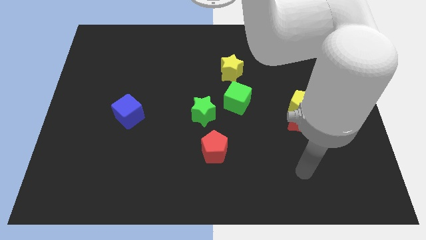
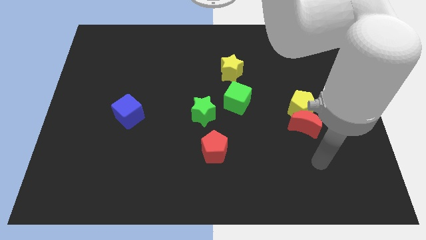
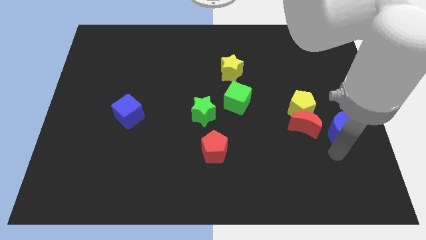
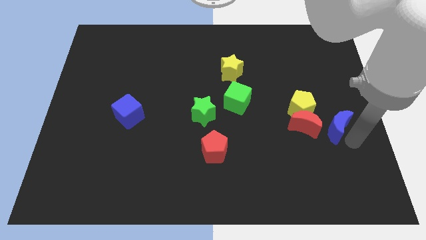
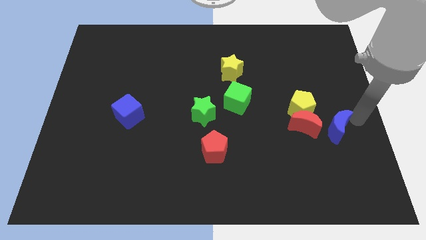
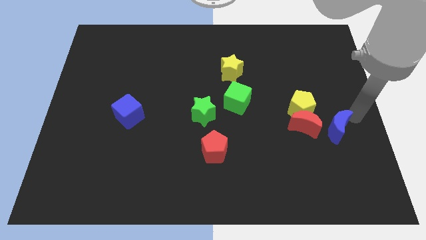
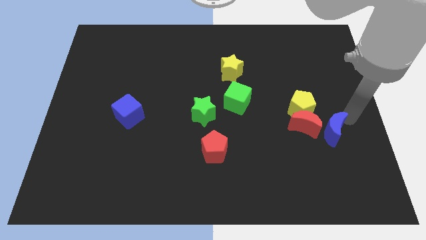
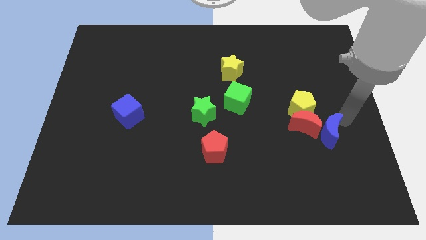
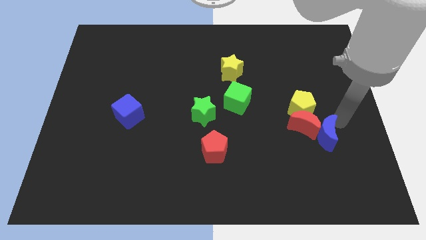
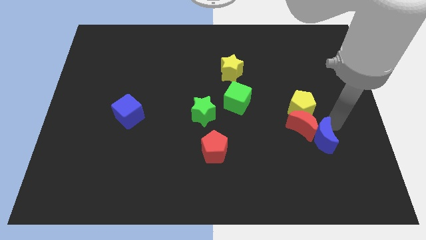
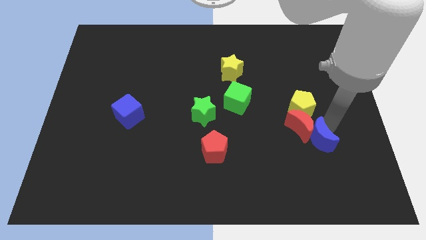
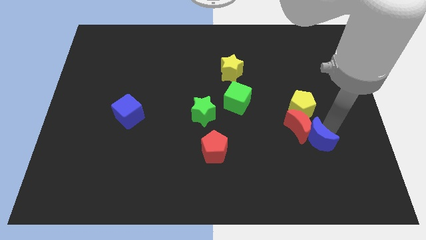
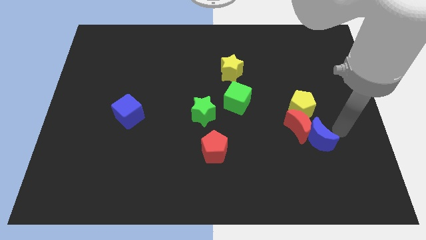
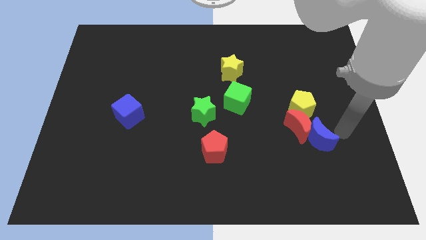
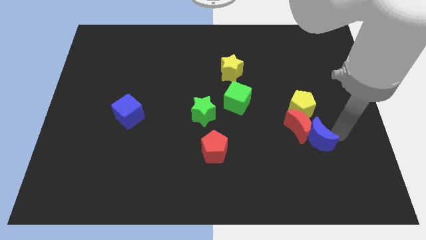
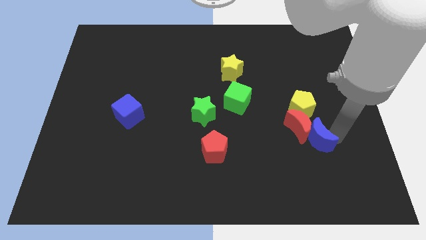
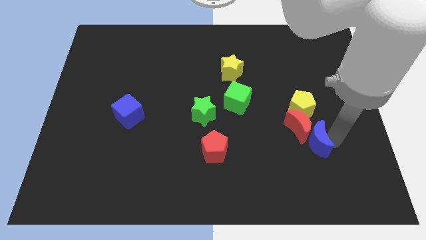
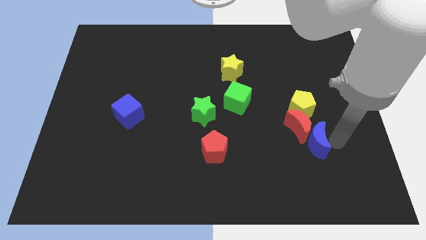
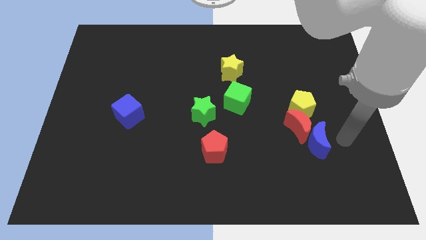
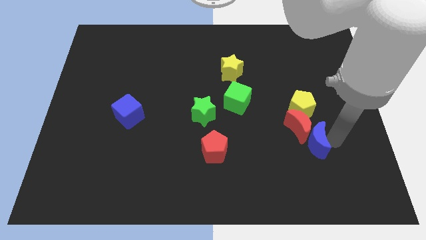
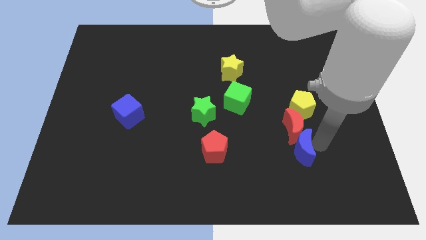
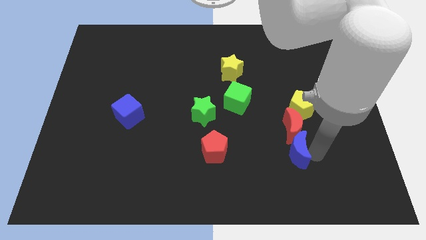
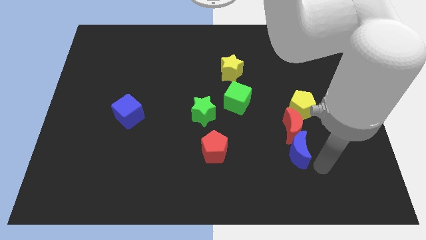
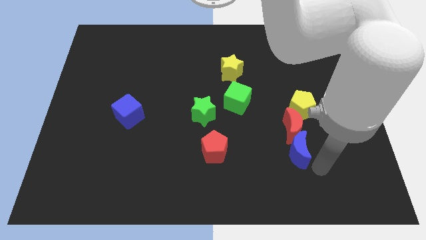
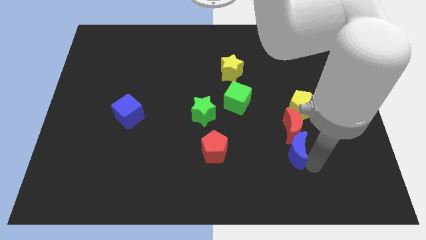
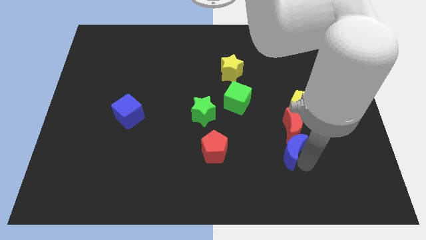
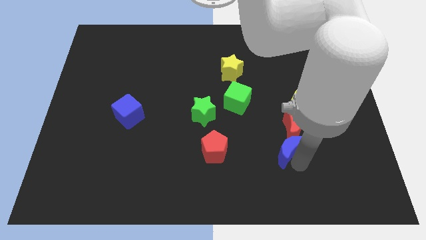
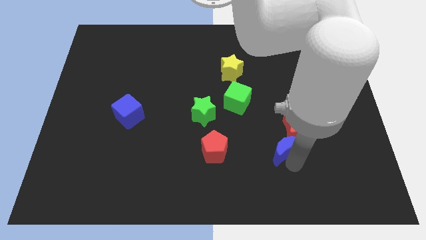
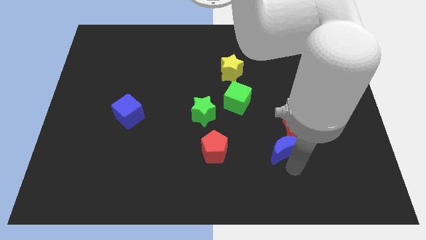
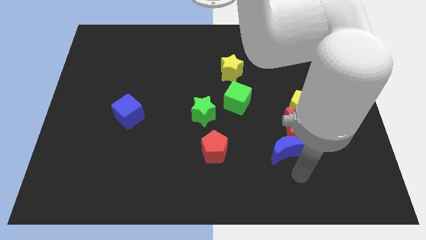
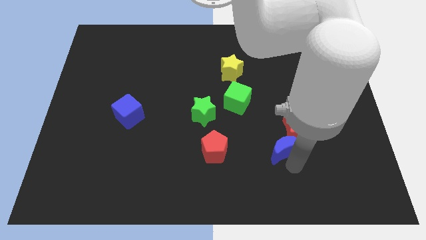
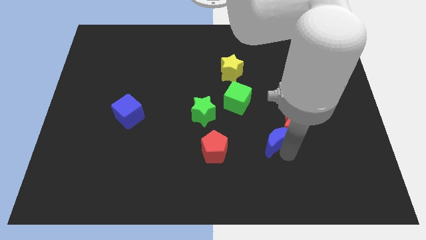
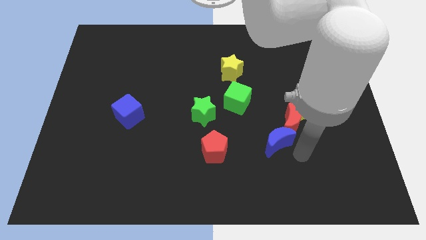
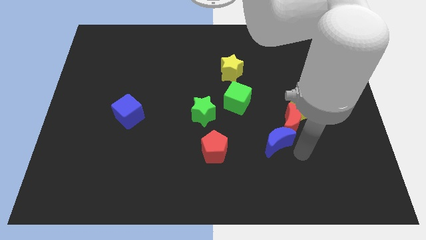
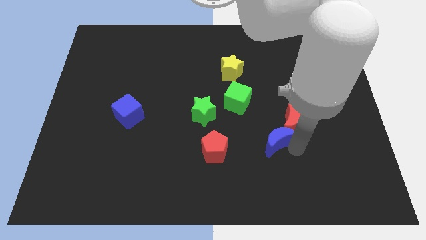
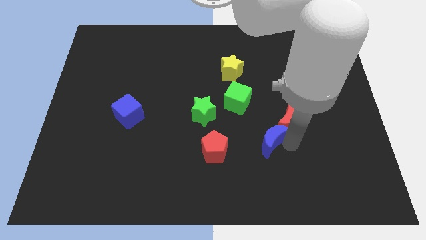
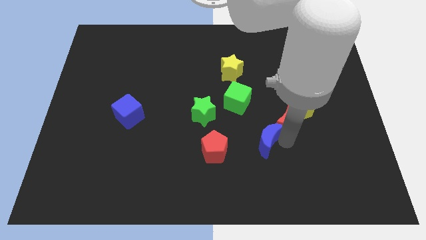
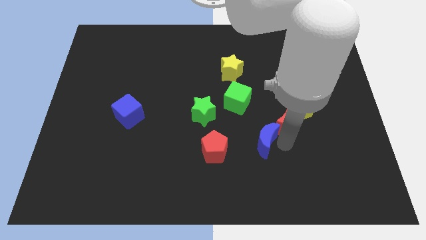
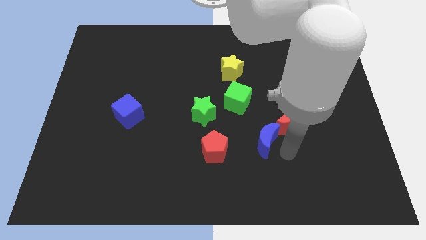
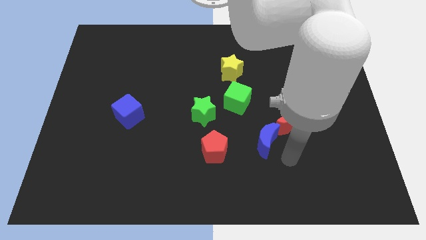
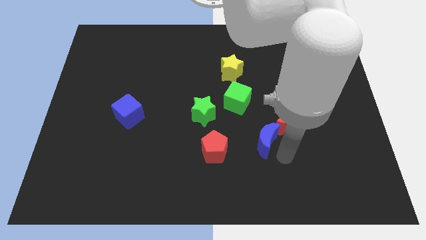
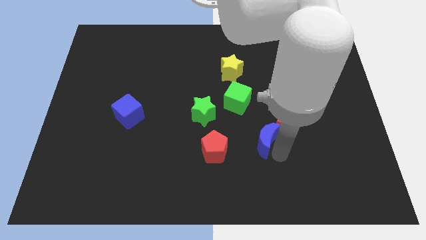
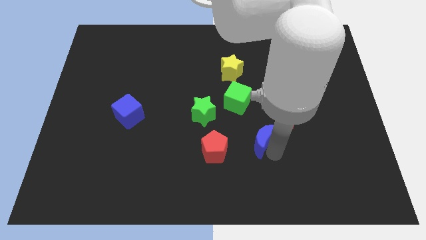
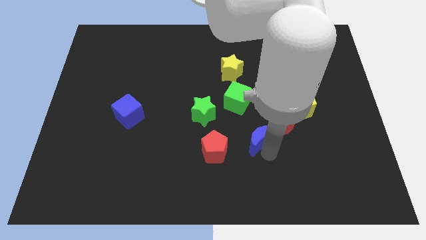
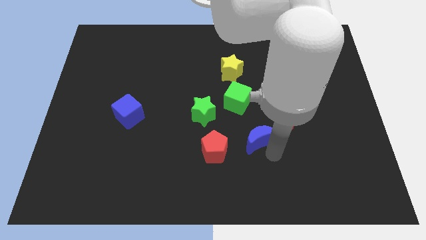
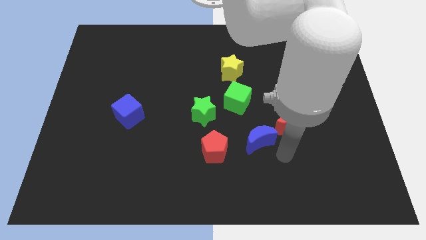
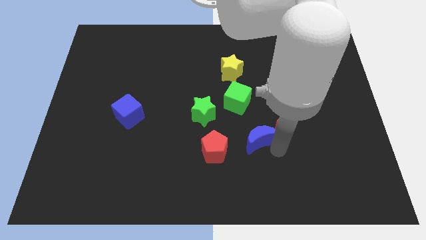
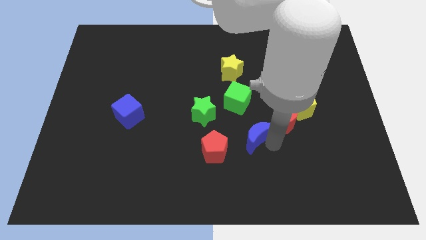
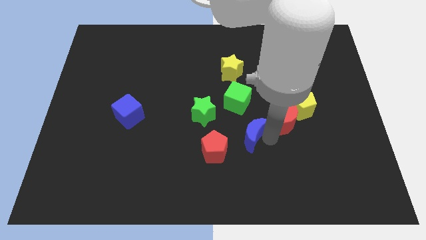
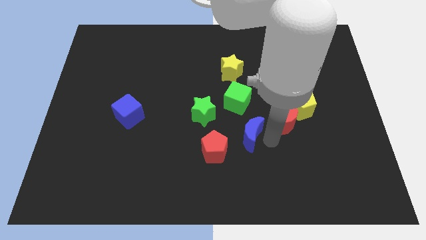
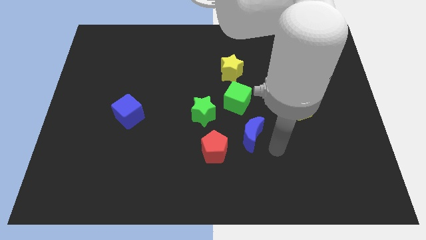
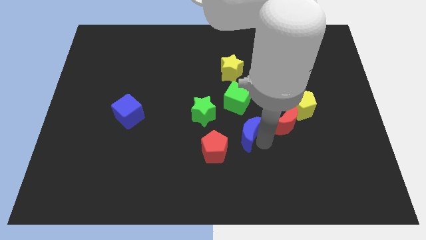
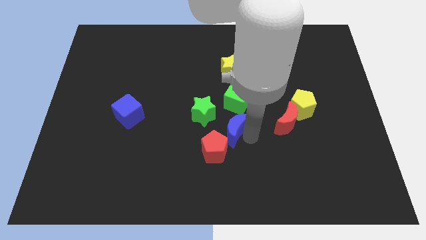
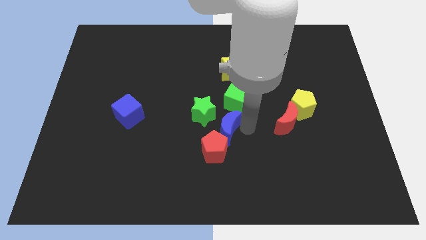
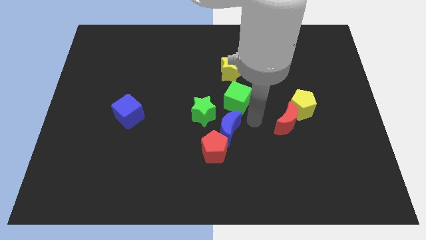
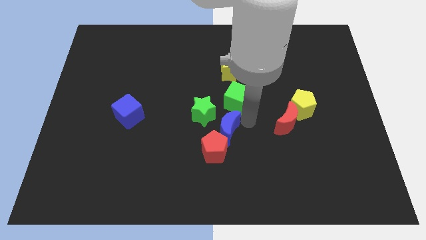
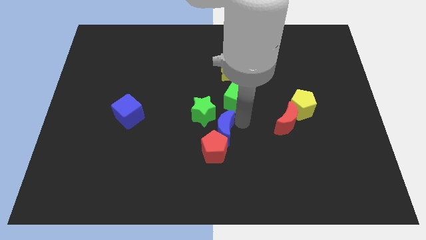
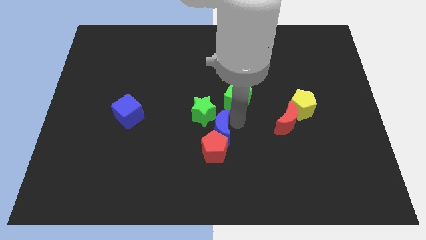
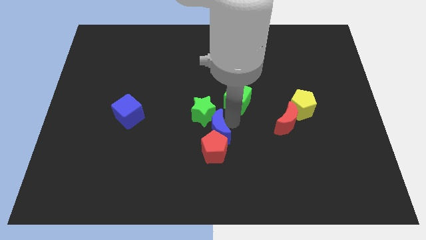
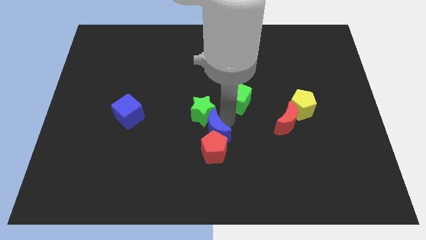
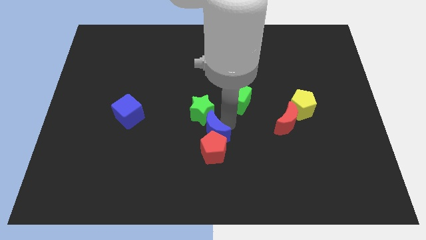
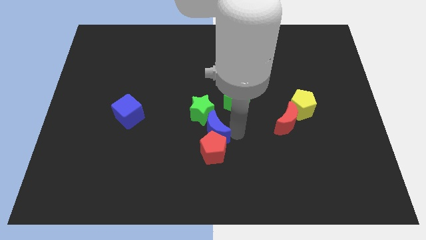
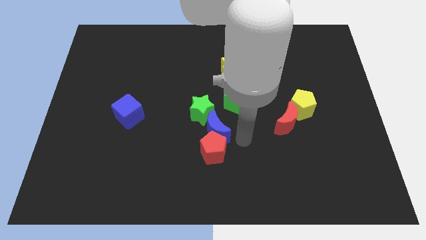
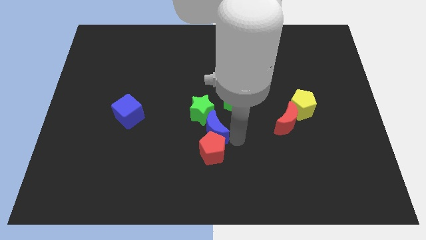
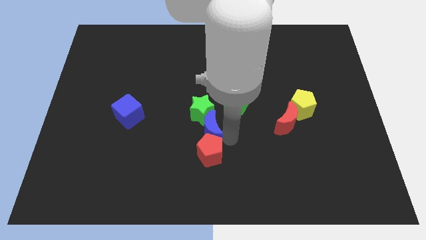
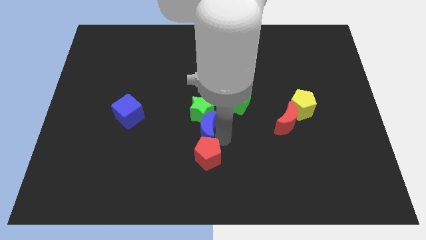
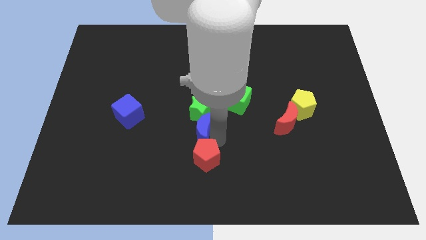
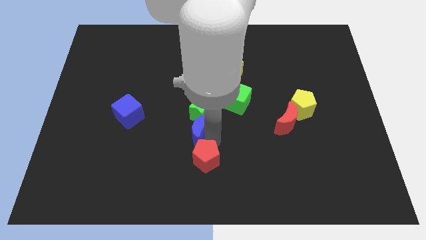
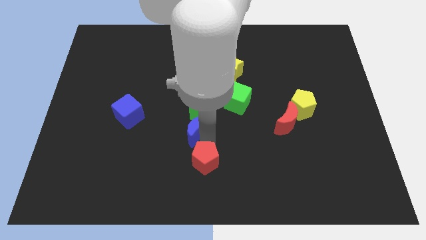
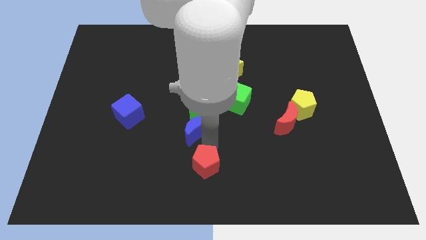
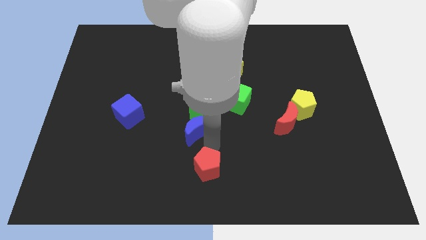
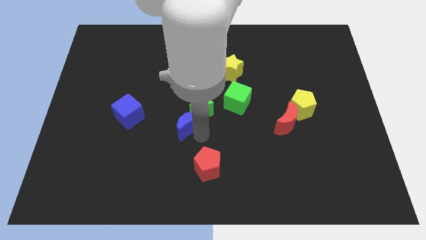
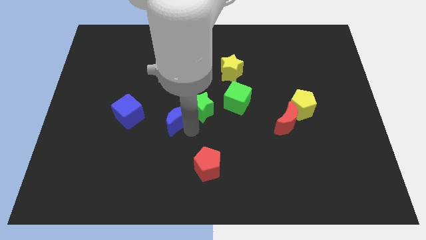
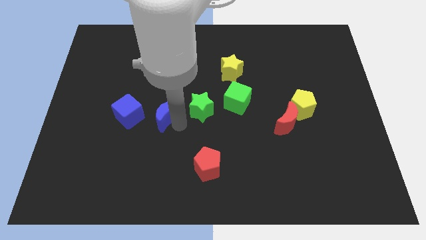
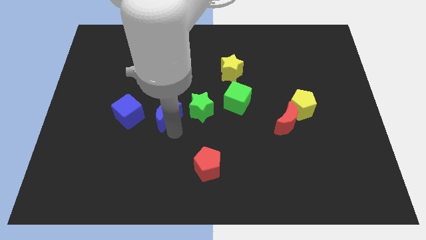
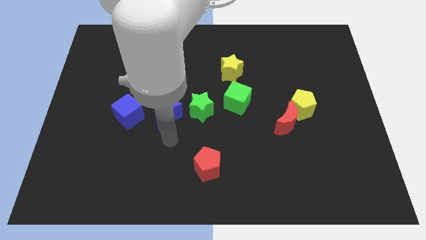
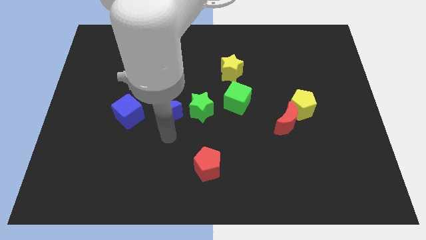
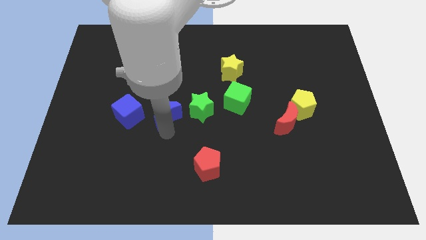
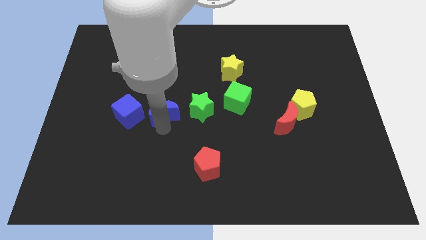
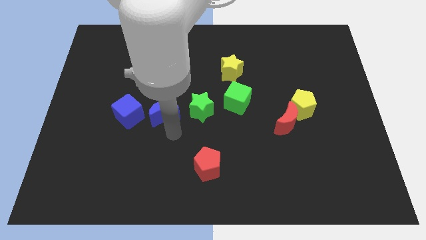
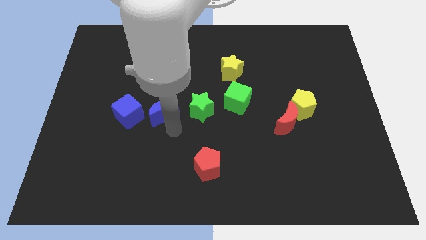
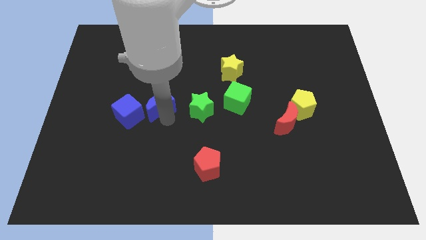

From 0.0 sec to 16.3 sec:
move the blue moon diagonally up and to the right of the blue cube
